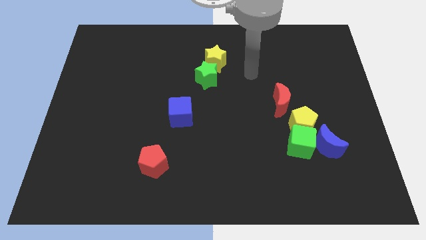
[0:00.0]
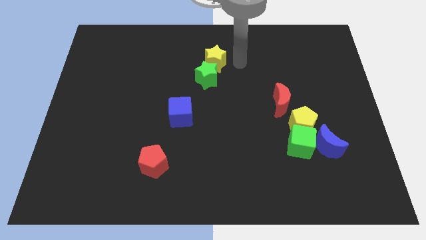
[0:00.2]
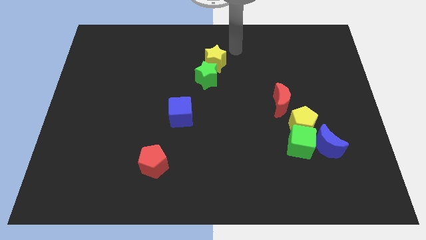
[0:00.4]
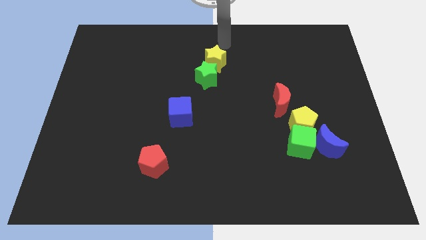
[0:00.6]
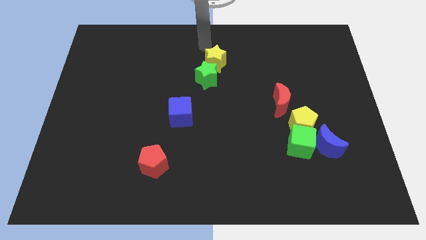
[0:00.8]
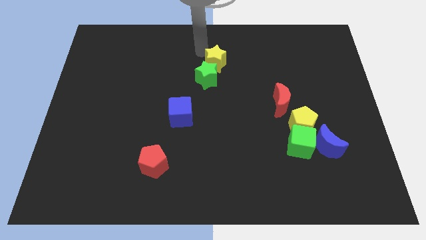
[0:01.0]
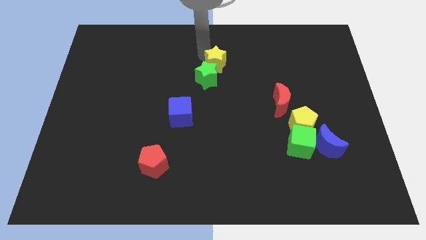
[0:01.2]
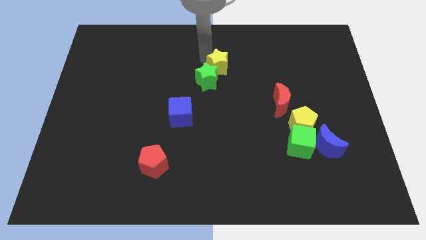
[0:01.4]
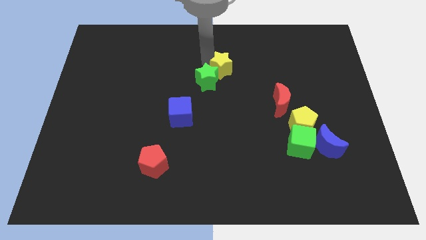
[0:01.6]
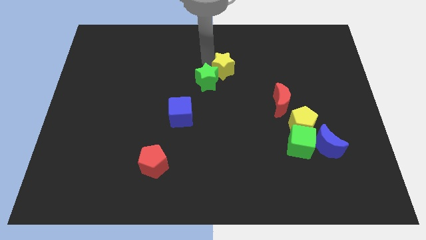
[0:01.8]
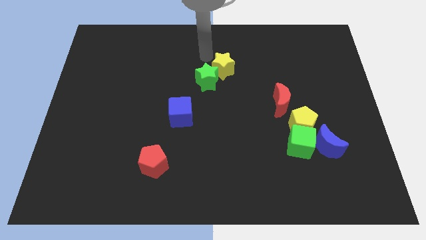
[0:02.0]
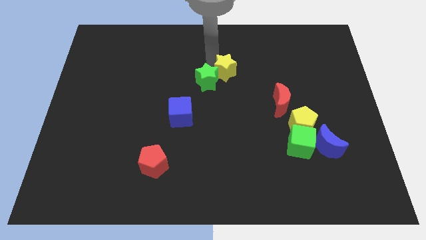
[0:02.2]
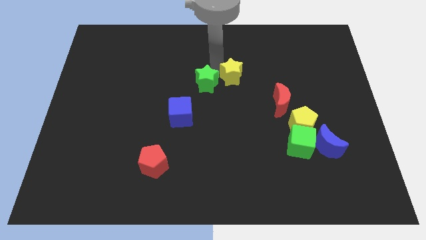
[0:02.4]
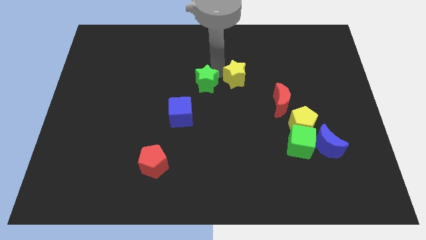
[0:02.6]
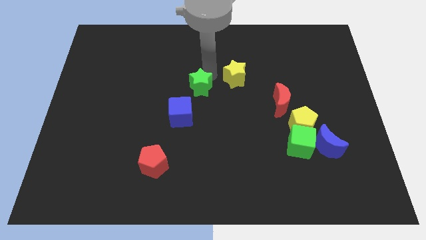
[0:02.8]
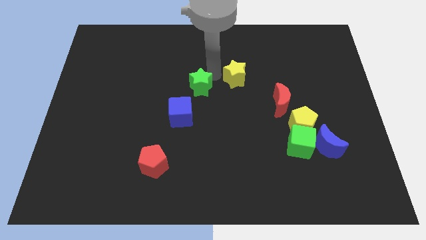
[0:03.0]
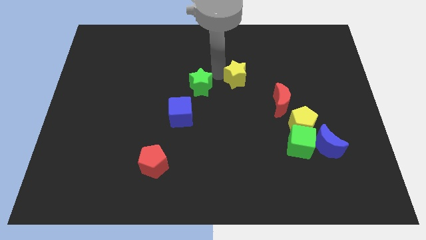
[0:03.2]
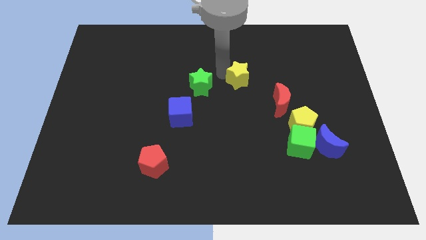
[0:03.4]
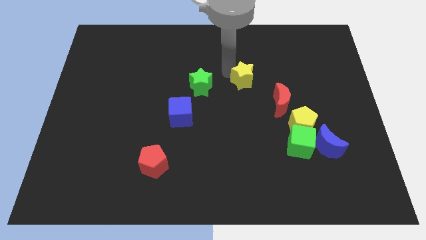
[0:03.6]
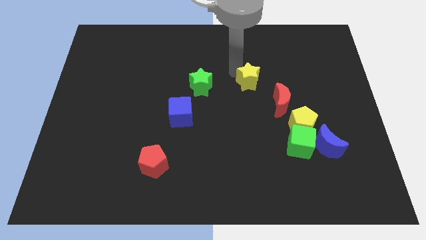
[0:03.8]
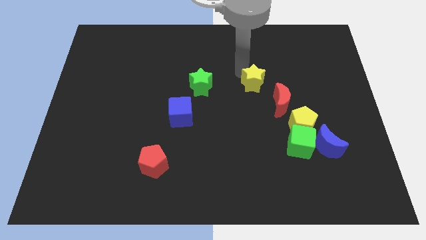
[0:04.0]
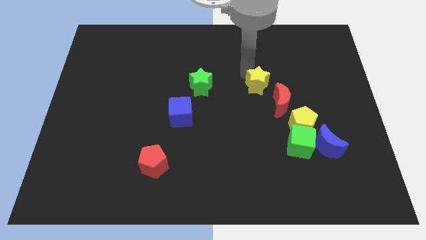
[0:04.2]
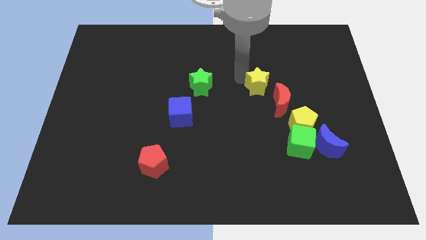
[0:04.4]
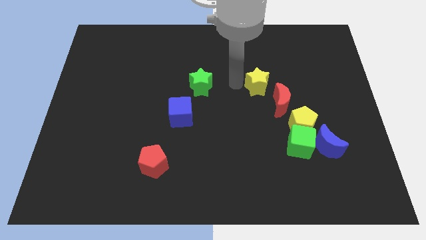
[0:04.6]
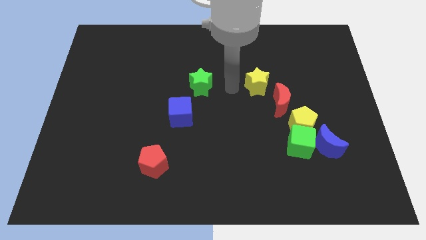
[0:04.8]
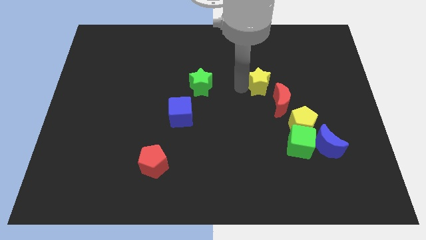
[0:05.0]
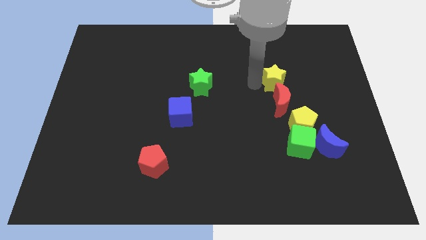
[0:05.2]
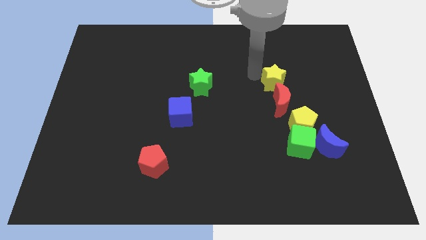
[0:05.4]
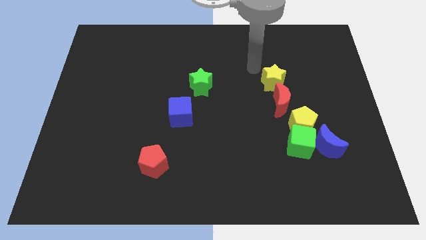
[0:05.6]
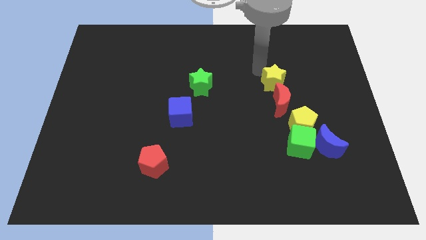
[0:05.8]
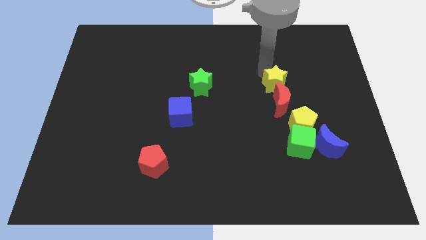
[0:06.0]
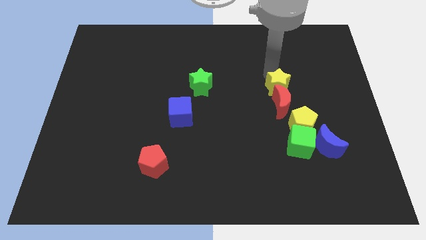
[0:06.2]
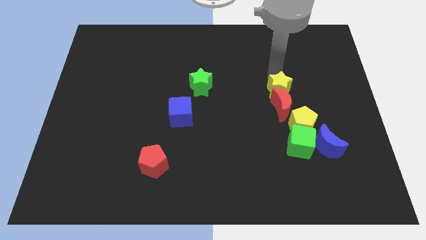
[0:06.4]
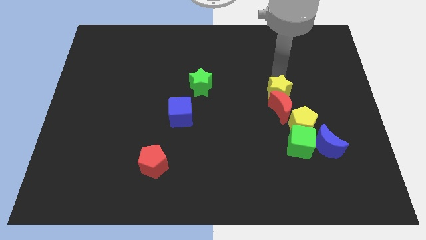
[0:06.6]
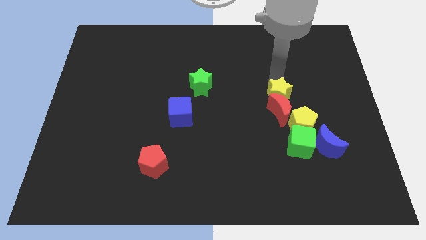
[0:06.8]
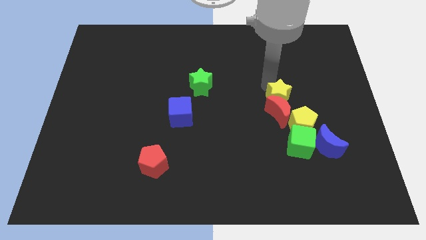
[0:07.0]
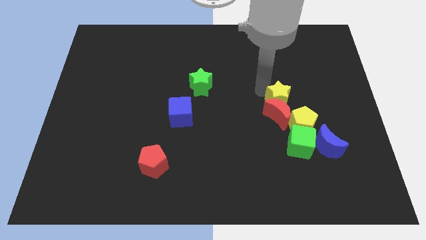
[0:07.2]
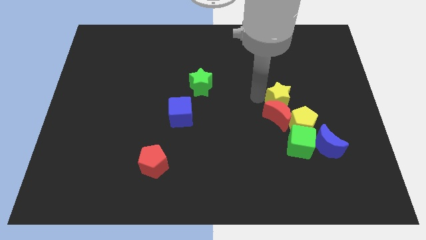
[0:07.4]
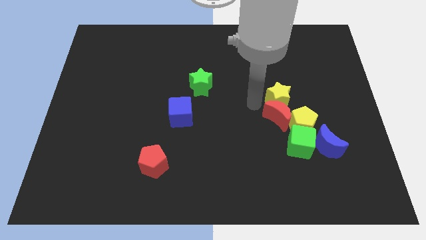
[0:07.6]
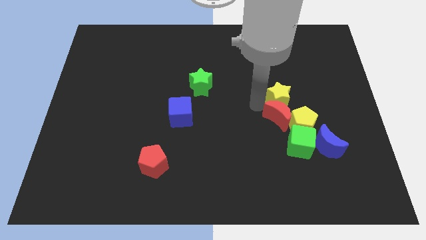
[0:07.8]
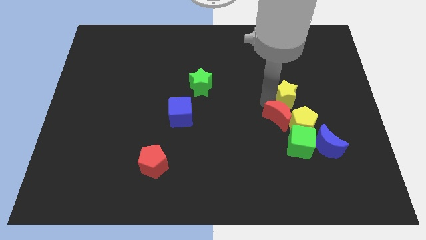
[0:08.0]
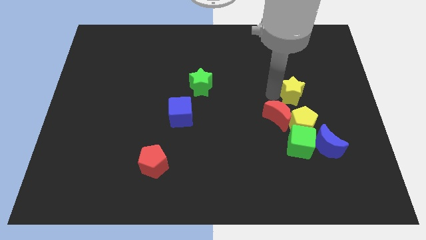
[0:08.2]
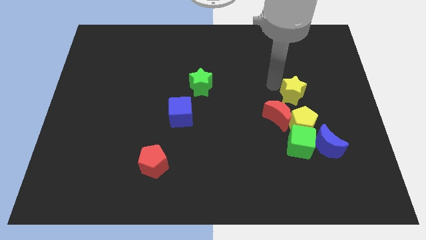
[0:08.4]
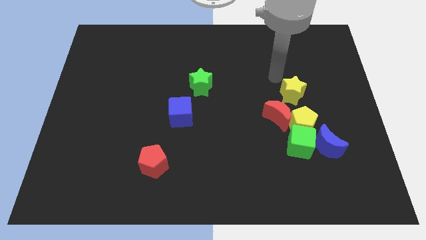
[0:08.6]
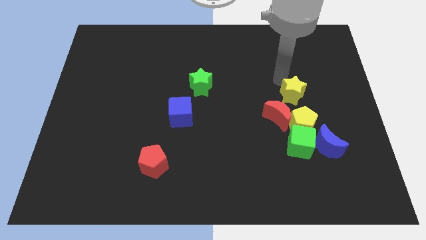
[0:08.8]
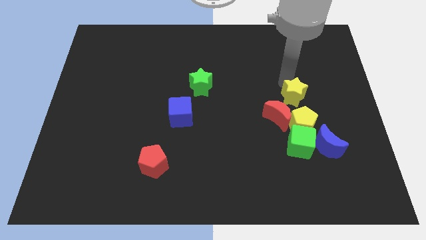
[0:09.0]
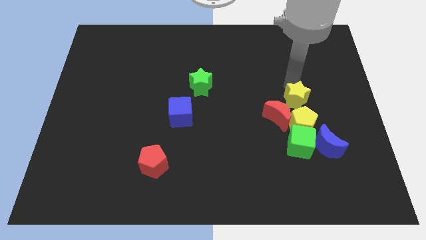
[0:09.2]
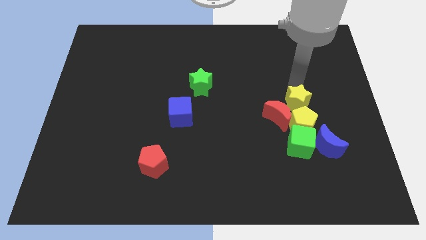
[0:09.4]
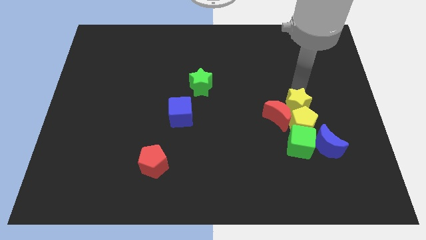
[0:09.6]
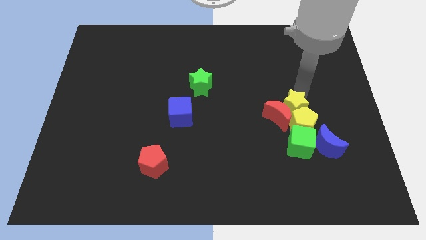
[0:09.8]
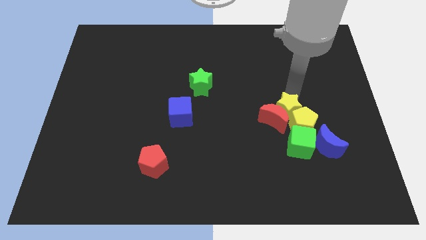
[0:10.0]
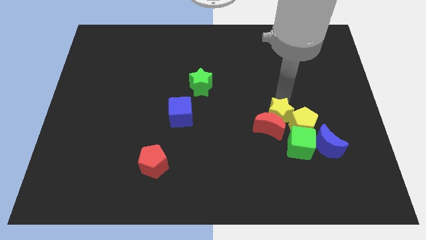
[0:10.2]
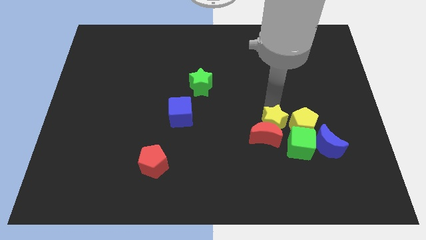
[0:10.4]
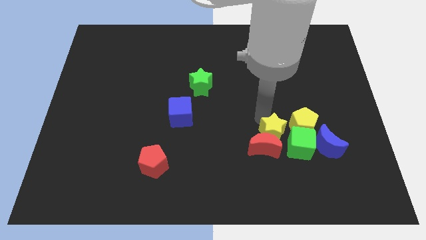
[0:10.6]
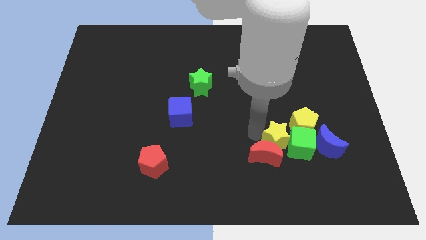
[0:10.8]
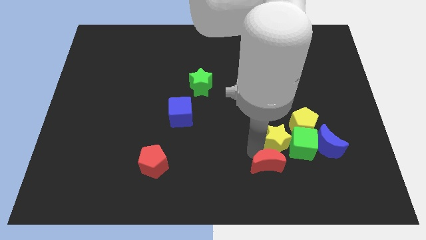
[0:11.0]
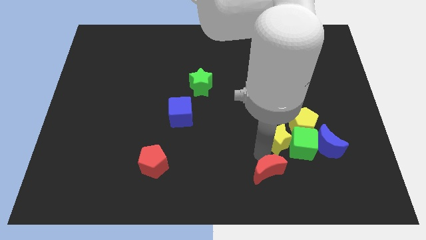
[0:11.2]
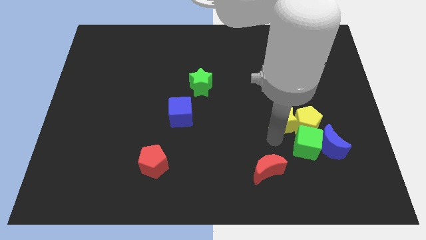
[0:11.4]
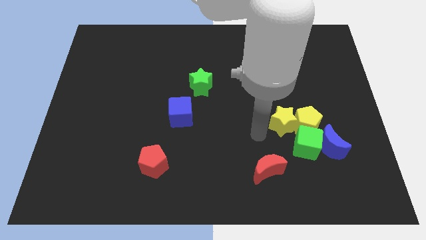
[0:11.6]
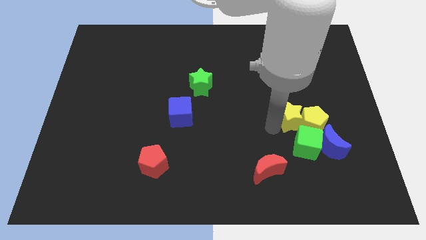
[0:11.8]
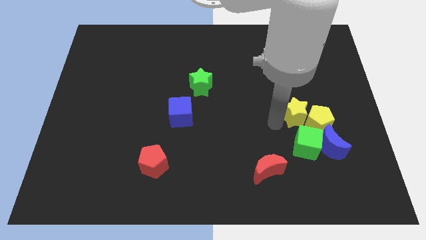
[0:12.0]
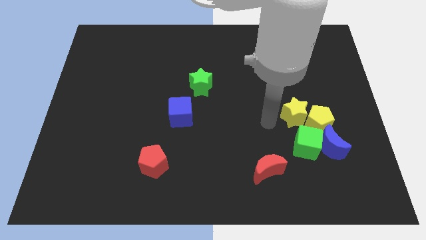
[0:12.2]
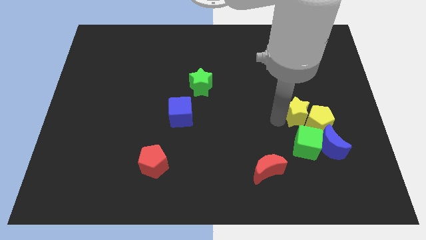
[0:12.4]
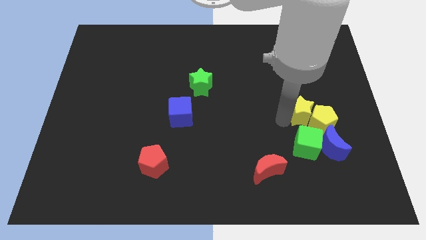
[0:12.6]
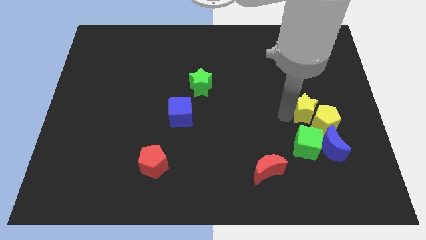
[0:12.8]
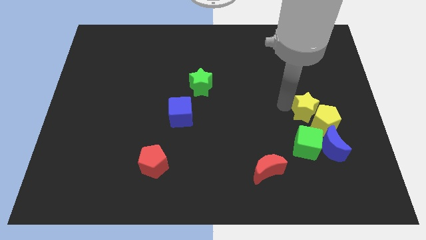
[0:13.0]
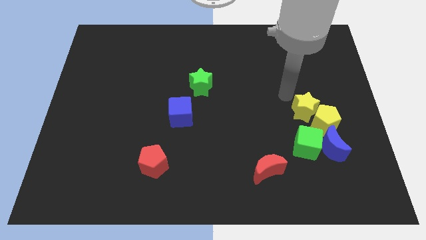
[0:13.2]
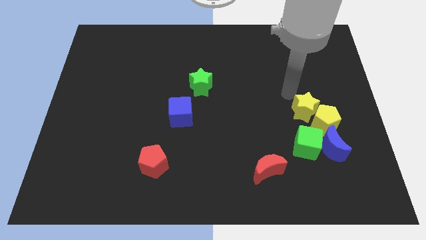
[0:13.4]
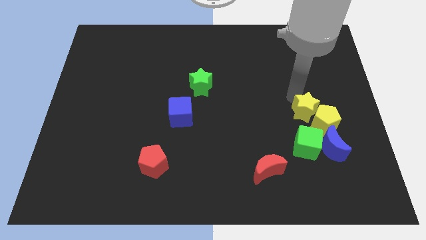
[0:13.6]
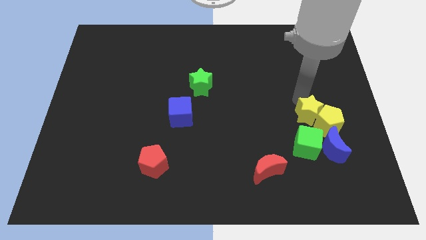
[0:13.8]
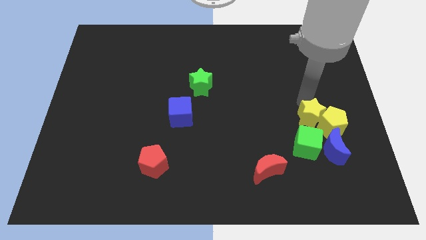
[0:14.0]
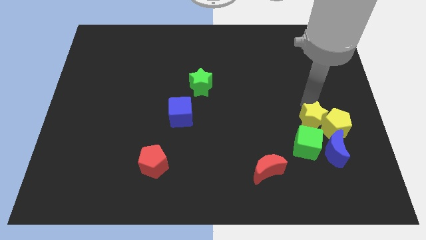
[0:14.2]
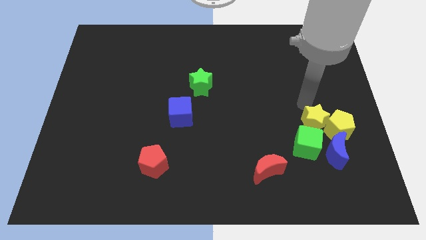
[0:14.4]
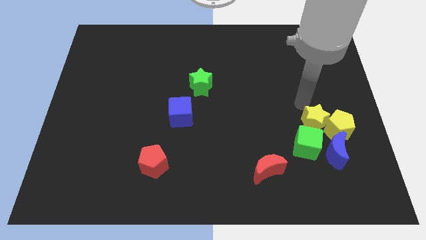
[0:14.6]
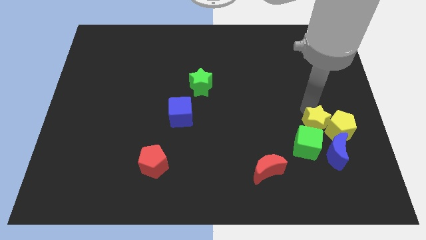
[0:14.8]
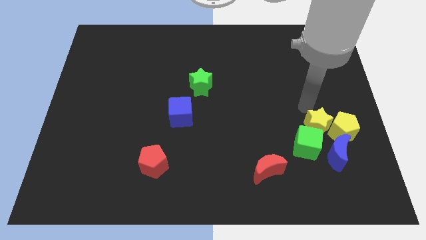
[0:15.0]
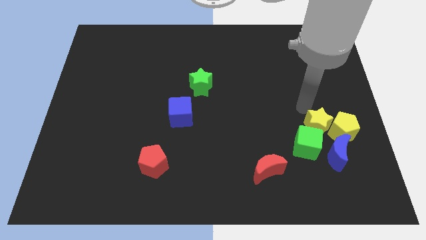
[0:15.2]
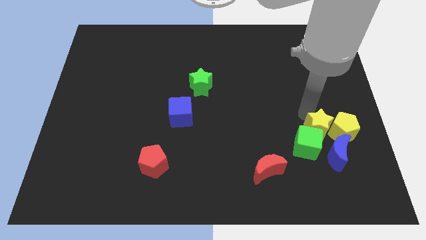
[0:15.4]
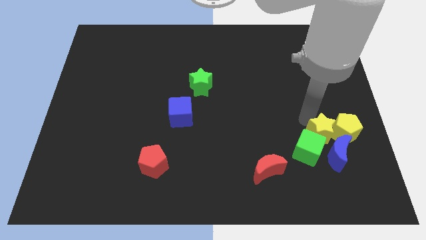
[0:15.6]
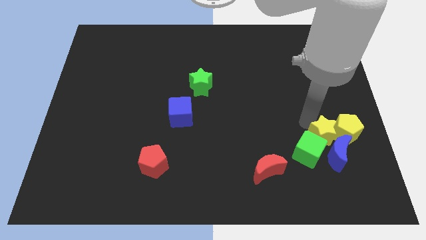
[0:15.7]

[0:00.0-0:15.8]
move the yellow star to the blue moon

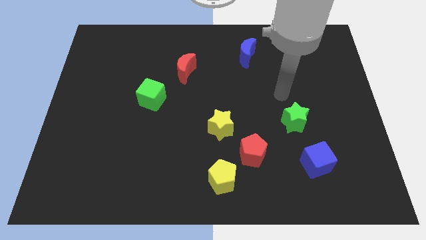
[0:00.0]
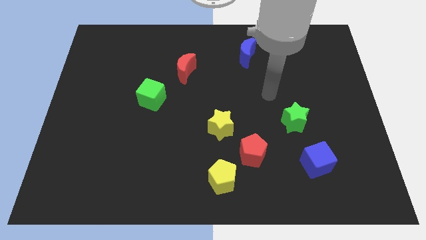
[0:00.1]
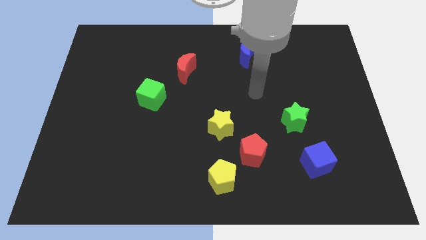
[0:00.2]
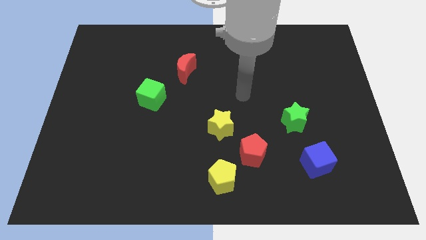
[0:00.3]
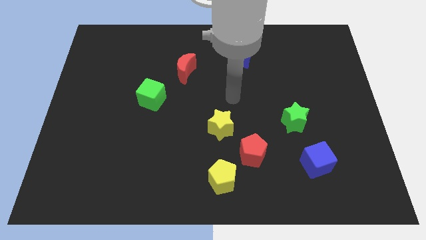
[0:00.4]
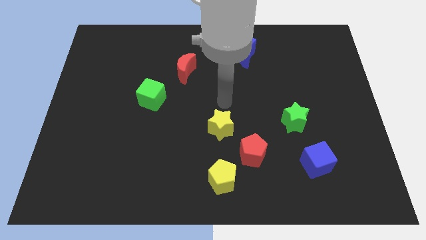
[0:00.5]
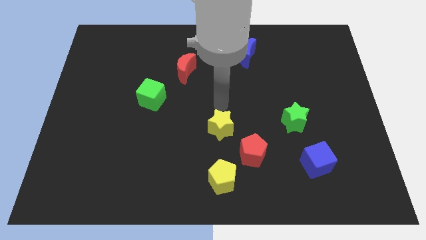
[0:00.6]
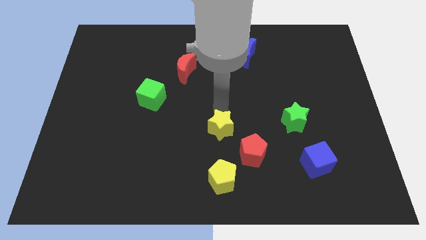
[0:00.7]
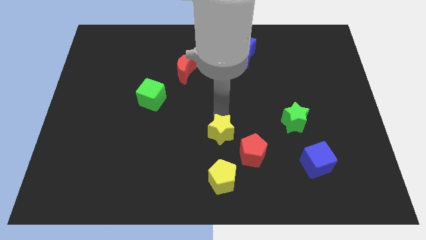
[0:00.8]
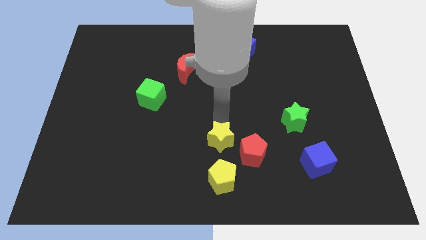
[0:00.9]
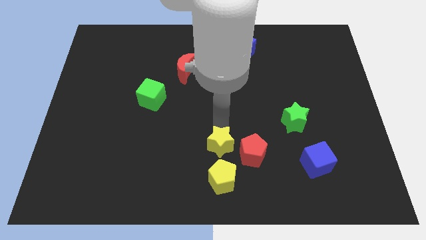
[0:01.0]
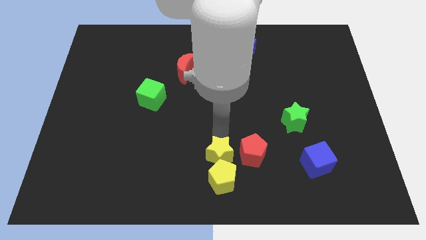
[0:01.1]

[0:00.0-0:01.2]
push the yellow star next to the yellow pentagon
